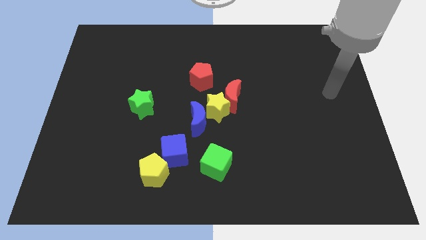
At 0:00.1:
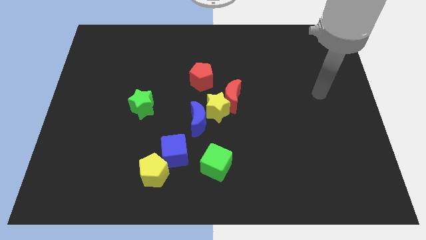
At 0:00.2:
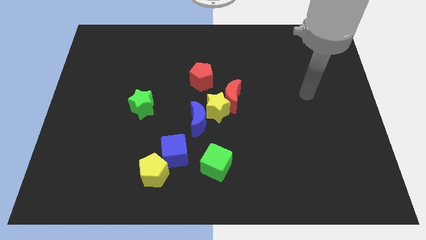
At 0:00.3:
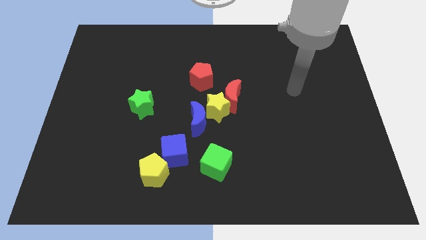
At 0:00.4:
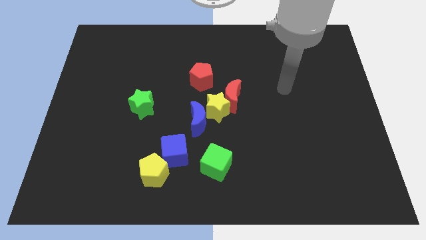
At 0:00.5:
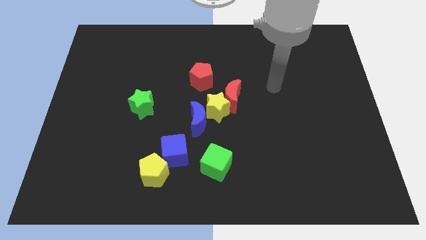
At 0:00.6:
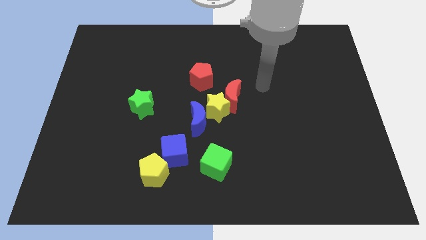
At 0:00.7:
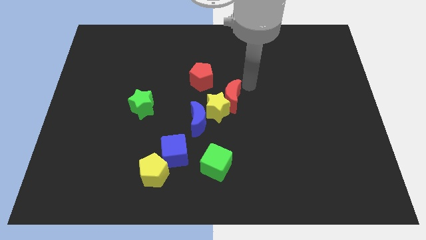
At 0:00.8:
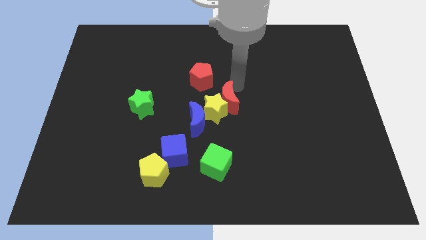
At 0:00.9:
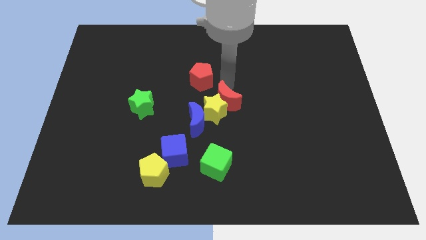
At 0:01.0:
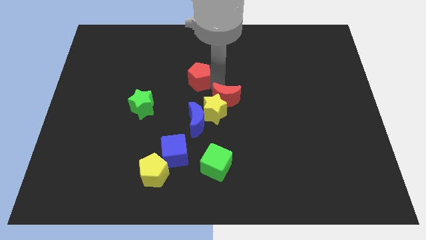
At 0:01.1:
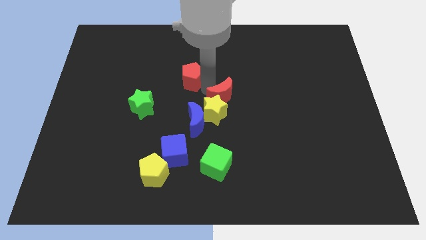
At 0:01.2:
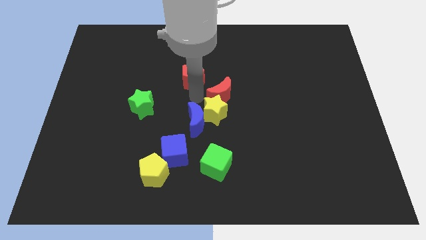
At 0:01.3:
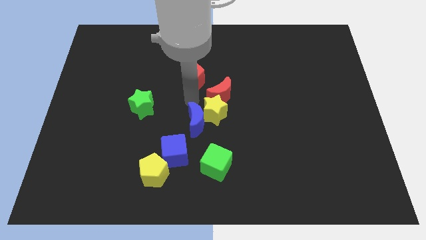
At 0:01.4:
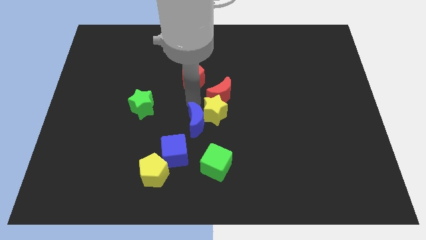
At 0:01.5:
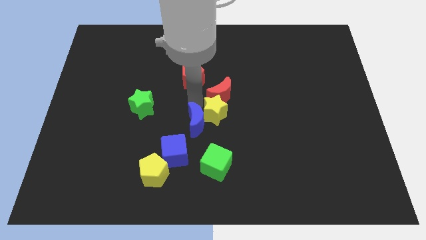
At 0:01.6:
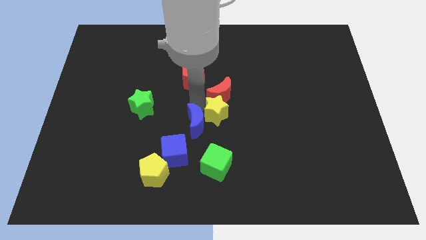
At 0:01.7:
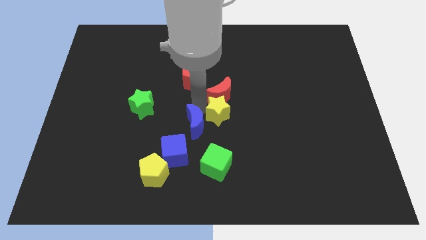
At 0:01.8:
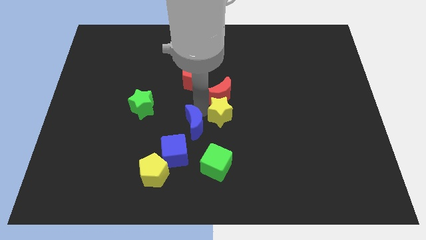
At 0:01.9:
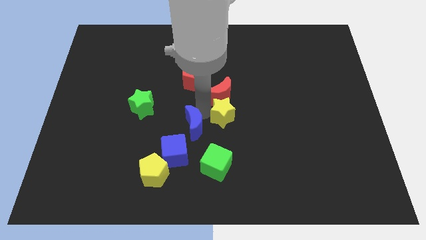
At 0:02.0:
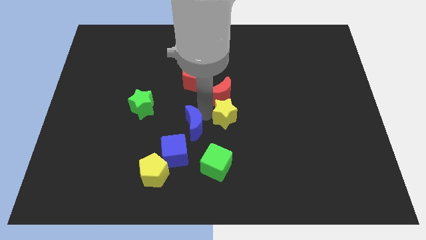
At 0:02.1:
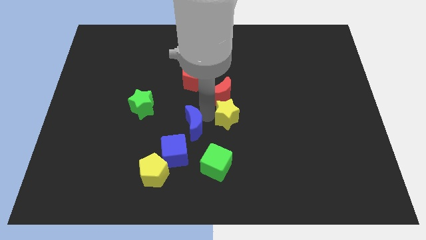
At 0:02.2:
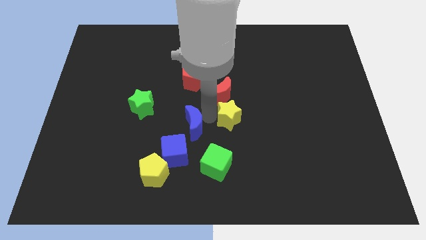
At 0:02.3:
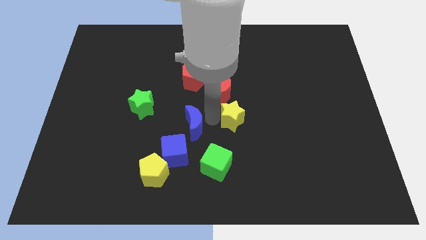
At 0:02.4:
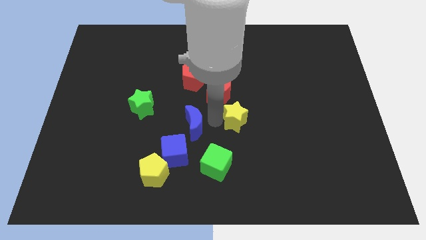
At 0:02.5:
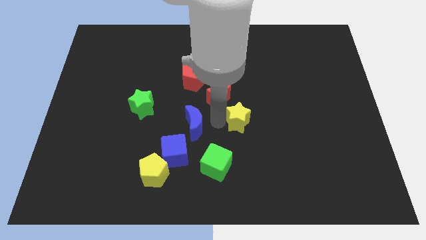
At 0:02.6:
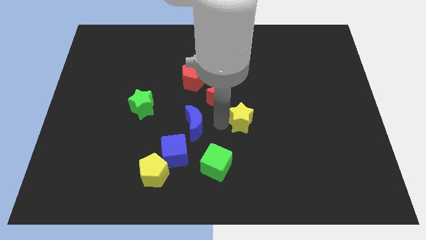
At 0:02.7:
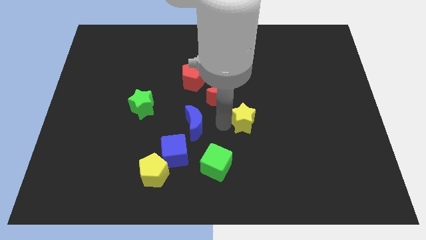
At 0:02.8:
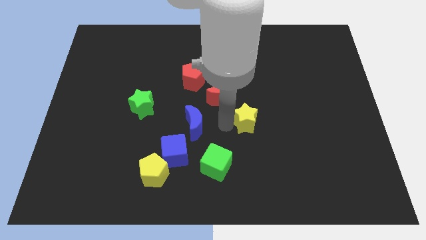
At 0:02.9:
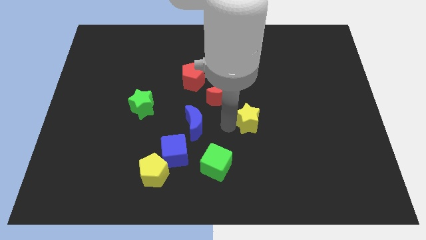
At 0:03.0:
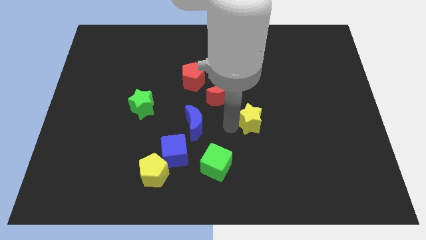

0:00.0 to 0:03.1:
move the yellow star away from the red moon and blue moon

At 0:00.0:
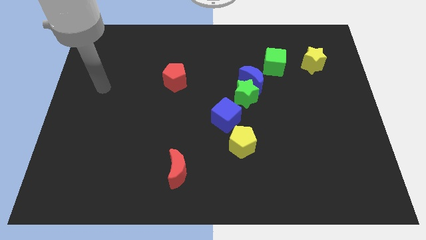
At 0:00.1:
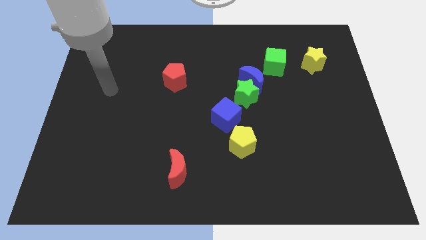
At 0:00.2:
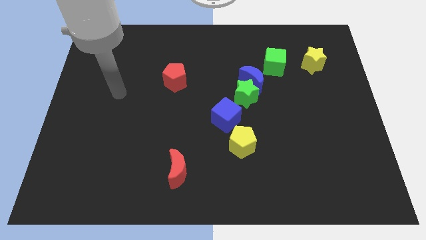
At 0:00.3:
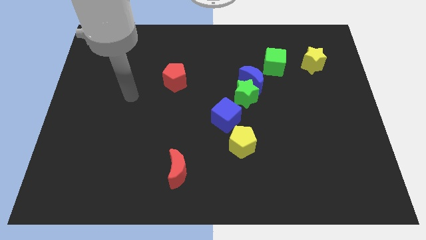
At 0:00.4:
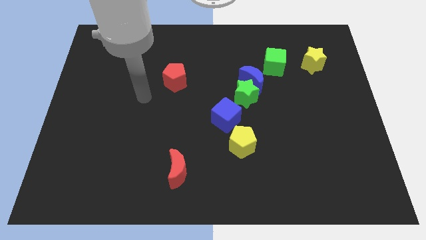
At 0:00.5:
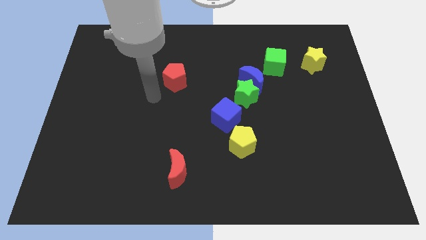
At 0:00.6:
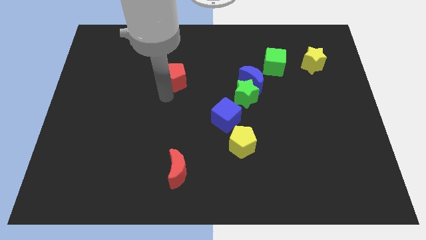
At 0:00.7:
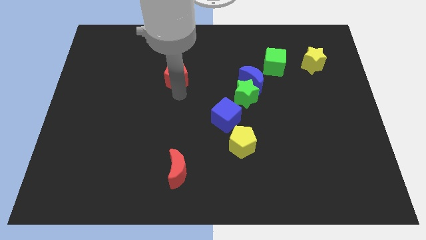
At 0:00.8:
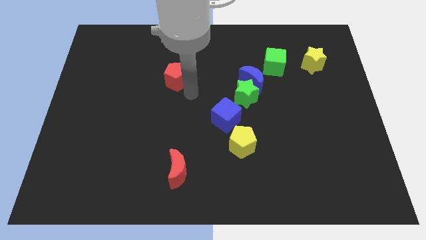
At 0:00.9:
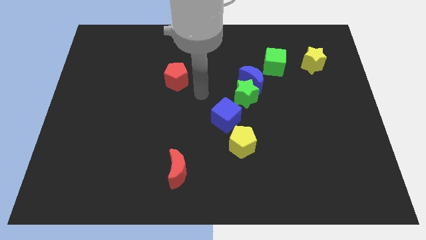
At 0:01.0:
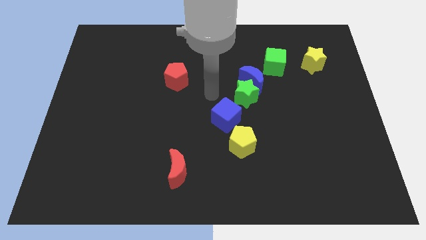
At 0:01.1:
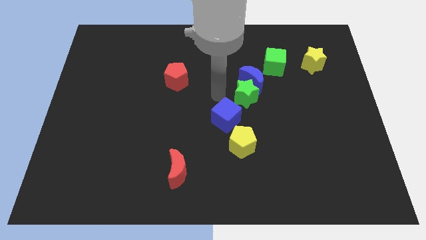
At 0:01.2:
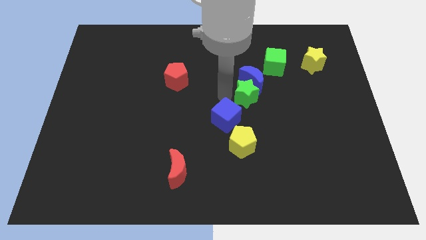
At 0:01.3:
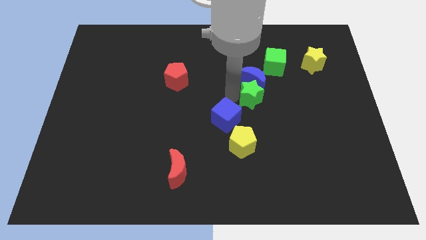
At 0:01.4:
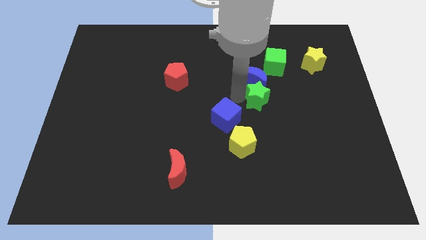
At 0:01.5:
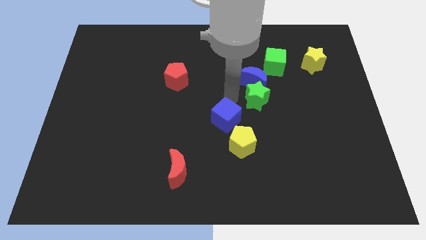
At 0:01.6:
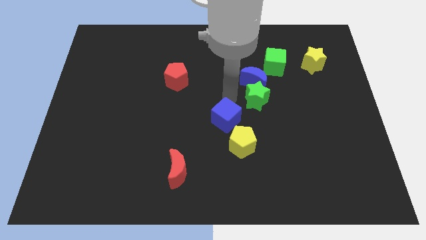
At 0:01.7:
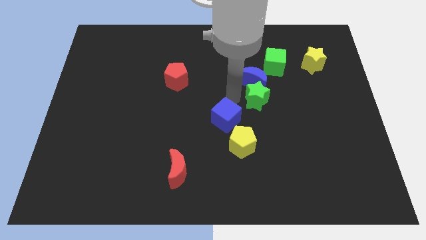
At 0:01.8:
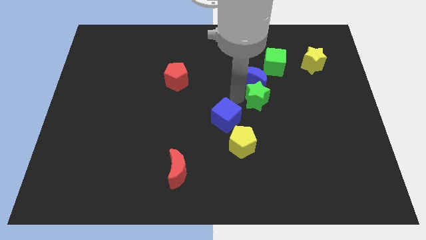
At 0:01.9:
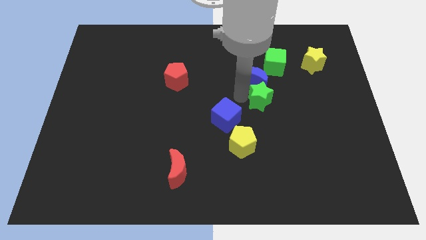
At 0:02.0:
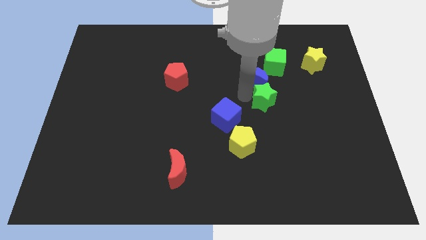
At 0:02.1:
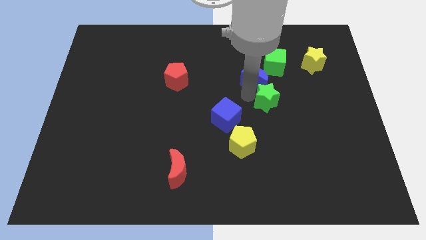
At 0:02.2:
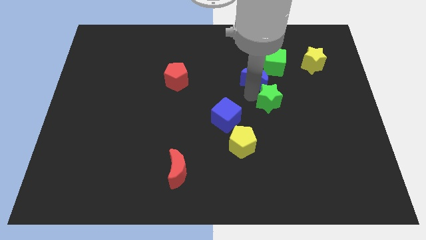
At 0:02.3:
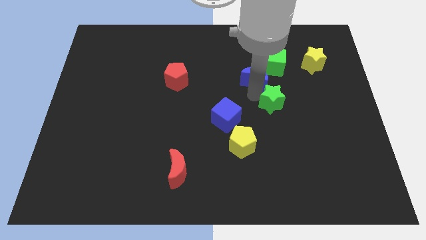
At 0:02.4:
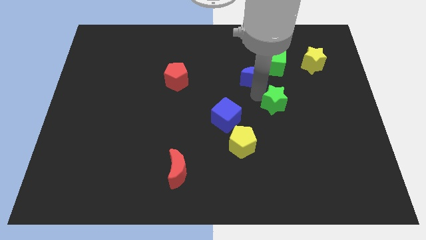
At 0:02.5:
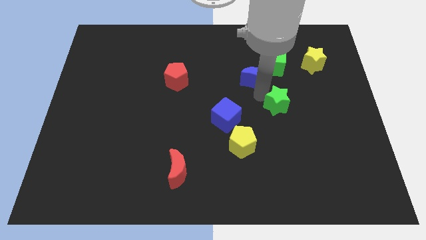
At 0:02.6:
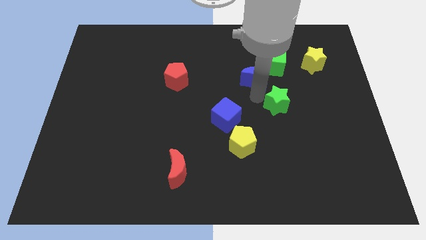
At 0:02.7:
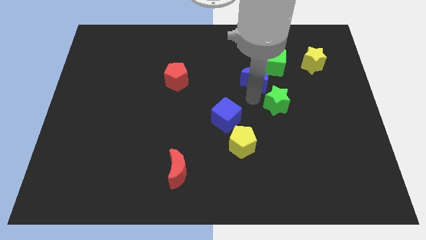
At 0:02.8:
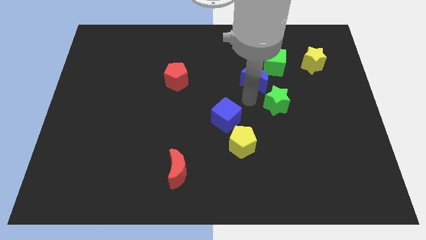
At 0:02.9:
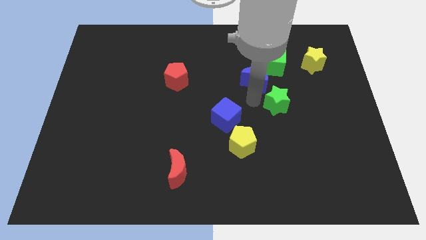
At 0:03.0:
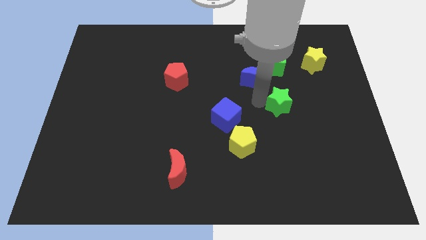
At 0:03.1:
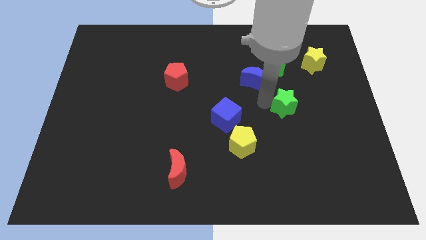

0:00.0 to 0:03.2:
separate the green star from the blue moon and blue cube

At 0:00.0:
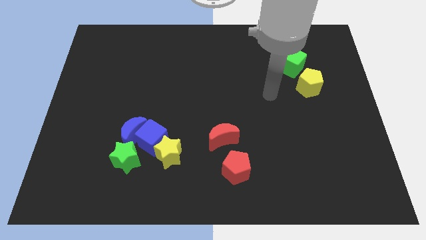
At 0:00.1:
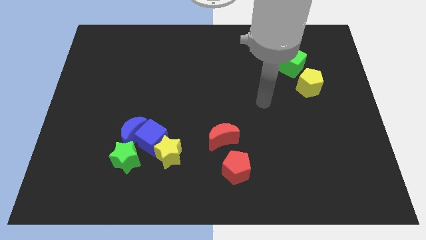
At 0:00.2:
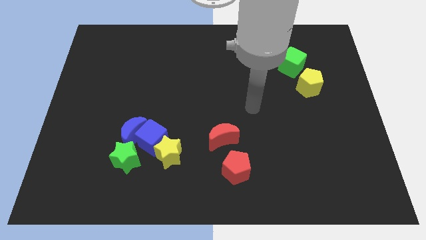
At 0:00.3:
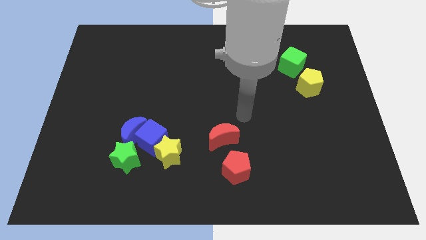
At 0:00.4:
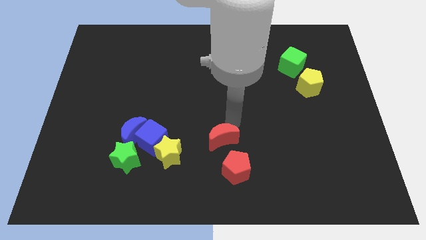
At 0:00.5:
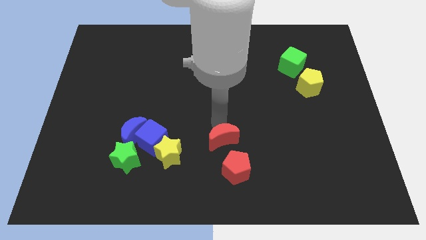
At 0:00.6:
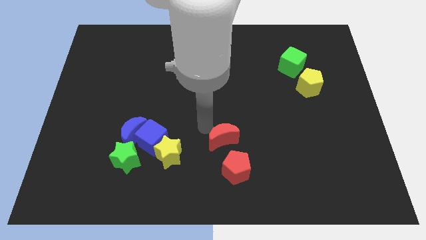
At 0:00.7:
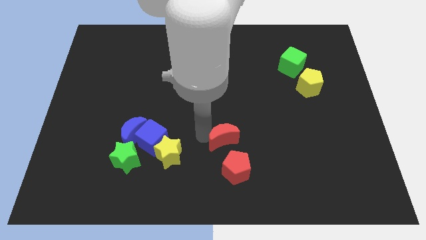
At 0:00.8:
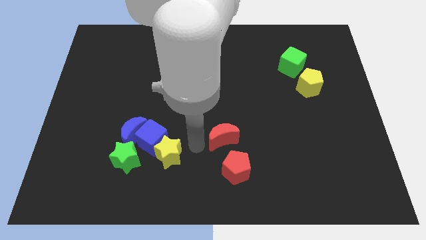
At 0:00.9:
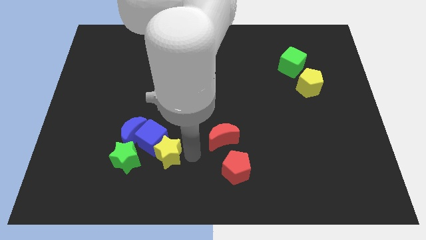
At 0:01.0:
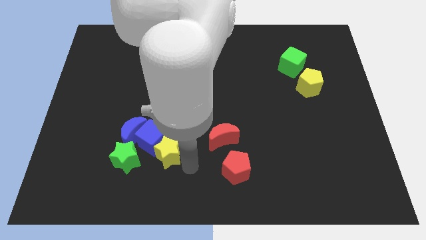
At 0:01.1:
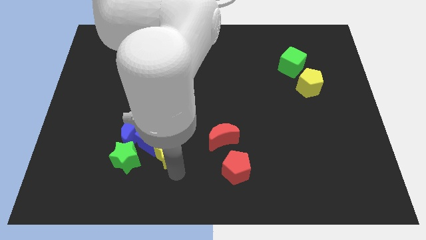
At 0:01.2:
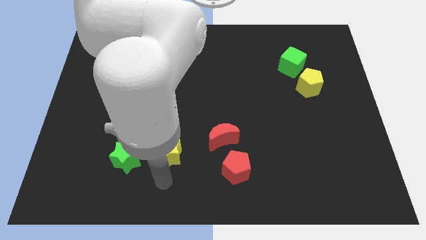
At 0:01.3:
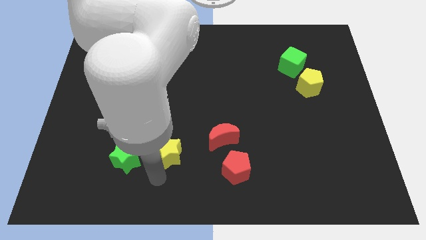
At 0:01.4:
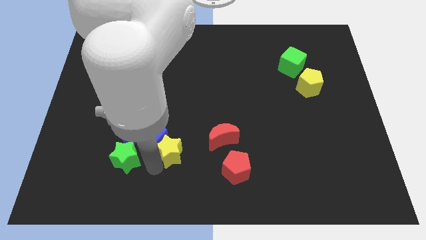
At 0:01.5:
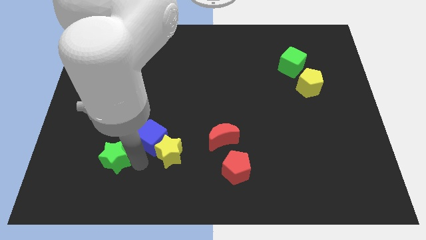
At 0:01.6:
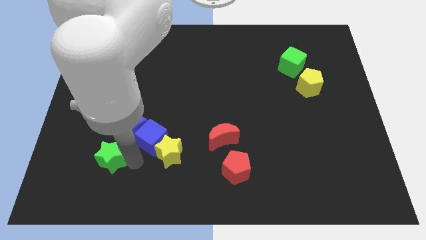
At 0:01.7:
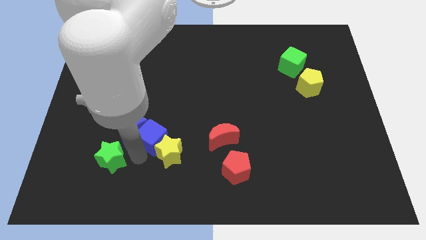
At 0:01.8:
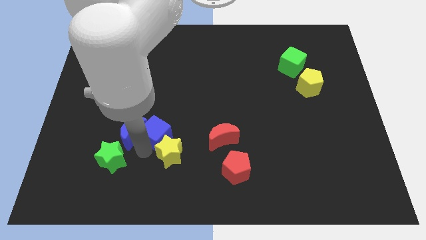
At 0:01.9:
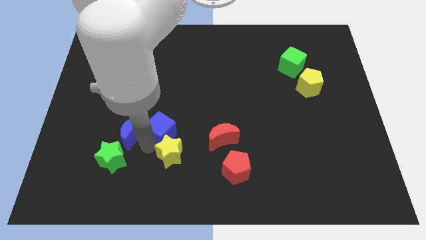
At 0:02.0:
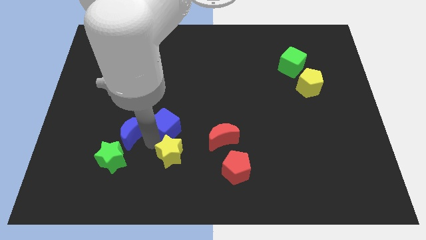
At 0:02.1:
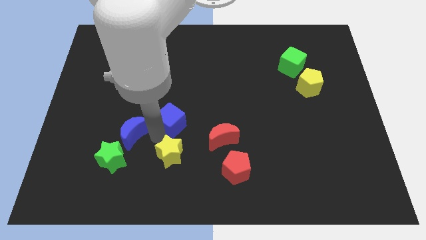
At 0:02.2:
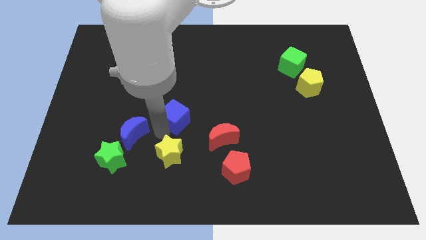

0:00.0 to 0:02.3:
pull the blue cube apart from the clump

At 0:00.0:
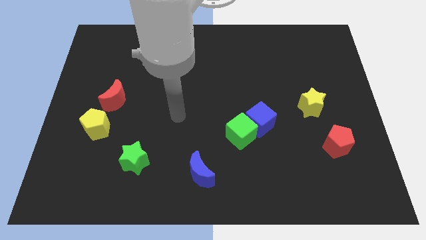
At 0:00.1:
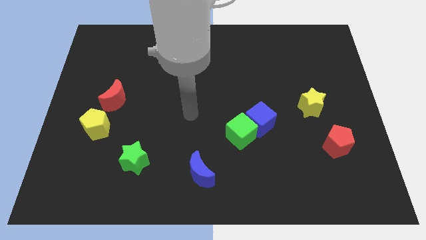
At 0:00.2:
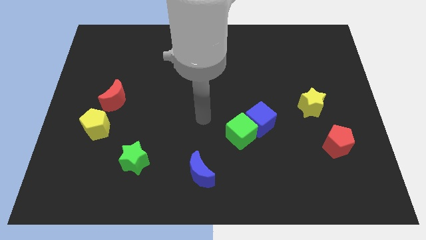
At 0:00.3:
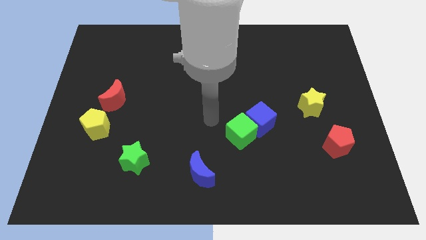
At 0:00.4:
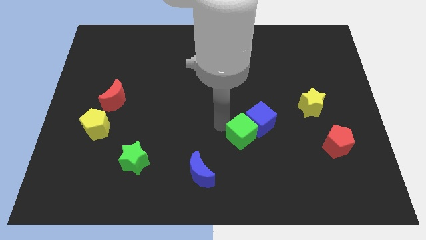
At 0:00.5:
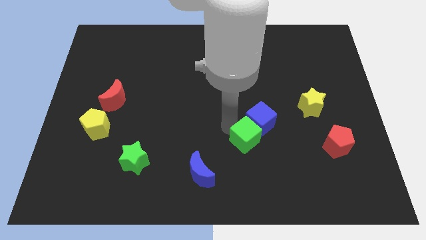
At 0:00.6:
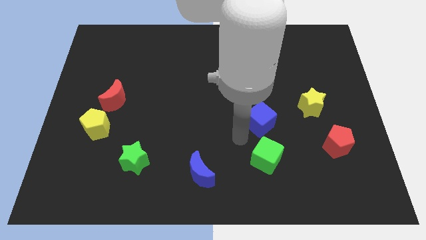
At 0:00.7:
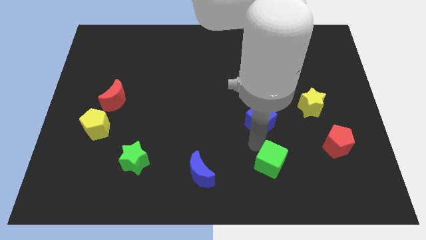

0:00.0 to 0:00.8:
move the blue cube away from the green cube
